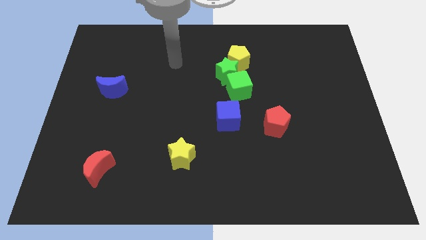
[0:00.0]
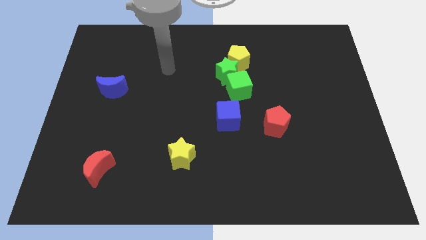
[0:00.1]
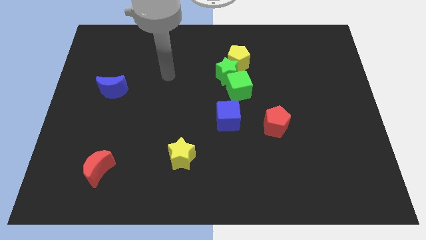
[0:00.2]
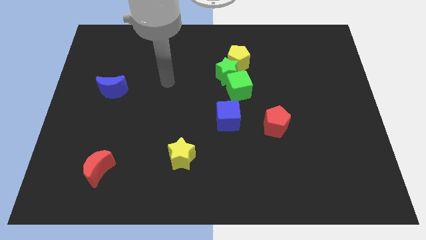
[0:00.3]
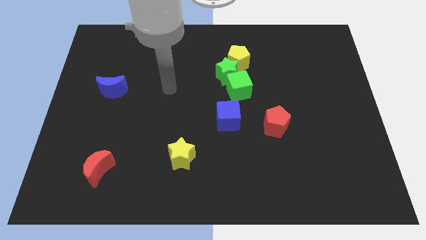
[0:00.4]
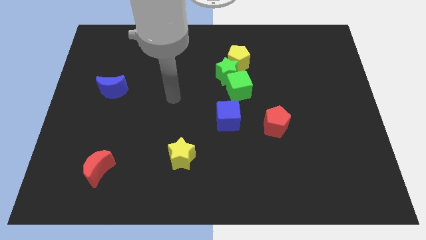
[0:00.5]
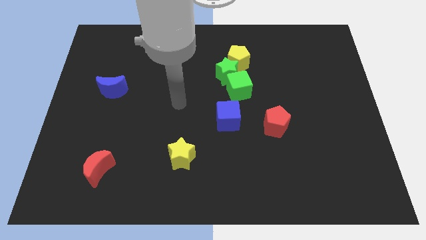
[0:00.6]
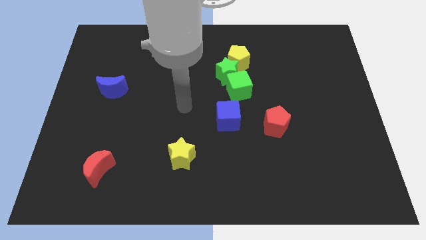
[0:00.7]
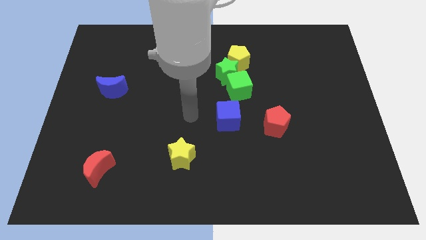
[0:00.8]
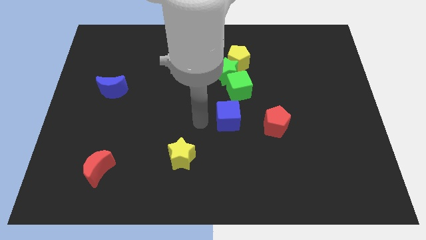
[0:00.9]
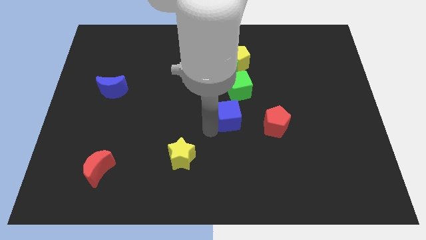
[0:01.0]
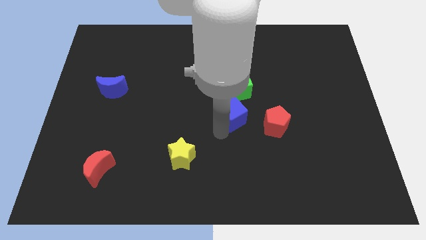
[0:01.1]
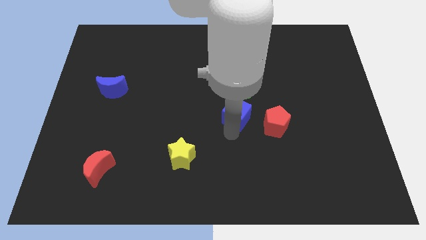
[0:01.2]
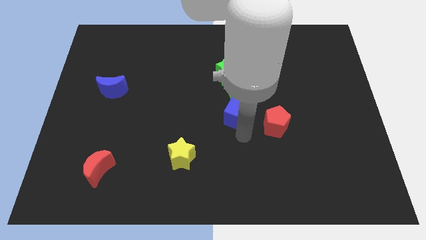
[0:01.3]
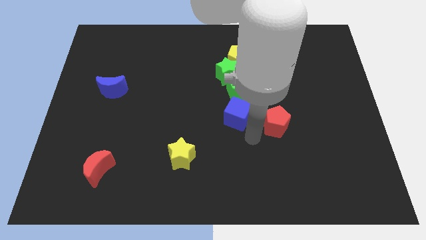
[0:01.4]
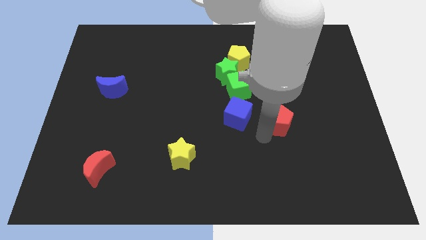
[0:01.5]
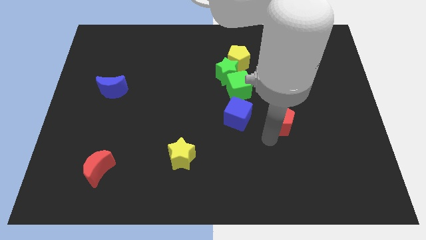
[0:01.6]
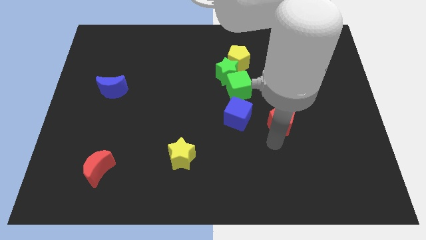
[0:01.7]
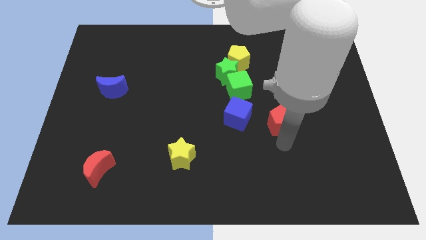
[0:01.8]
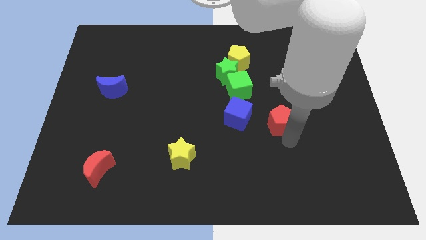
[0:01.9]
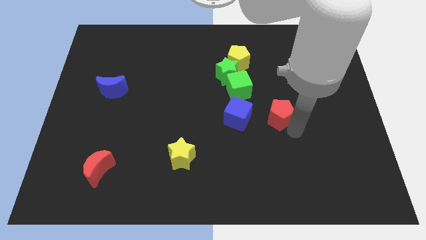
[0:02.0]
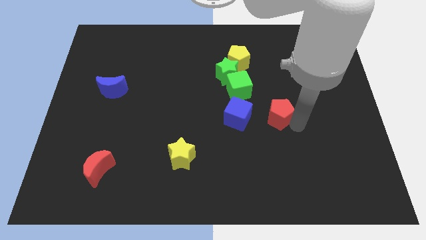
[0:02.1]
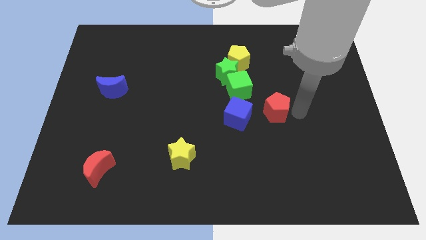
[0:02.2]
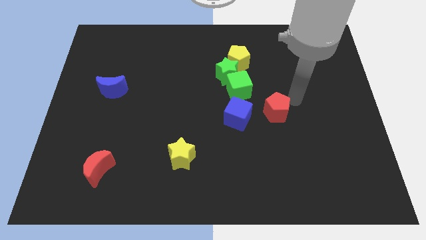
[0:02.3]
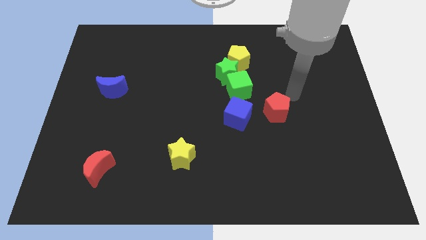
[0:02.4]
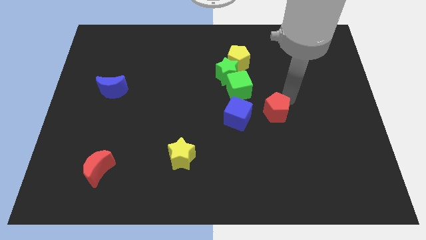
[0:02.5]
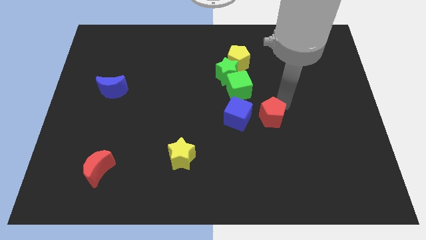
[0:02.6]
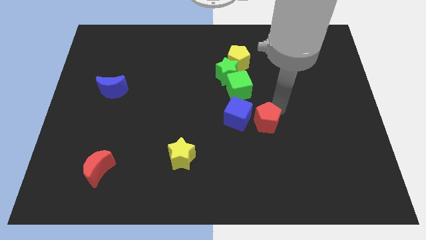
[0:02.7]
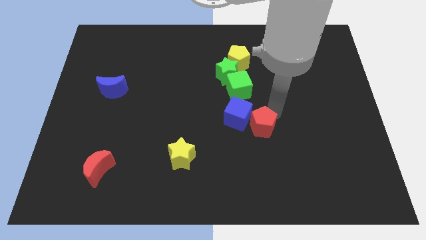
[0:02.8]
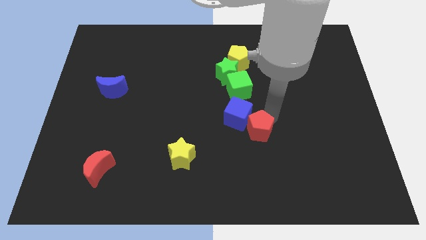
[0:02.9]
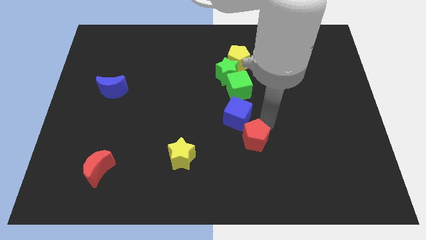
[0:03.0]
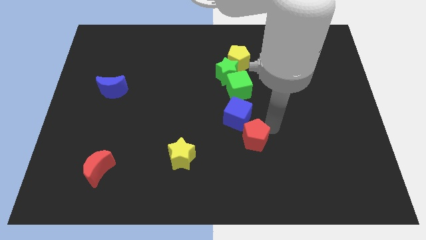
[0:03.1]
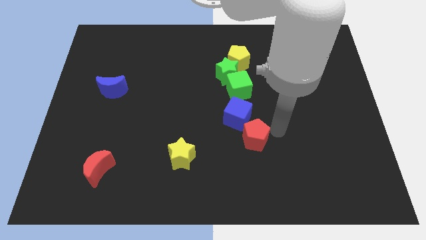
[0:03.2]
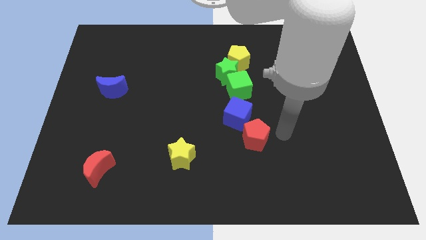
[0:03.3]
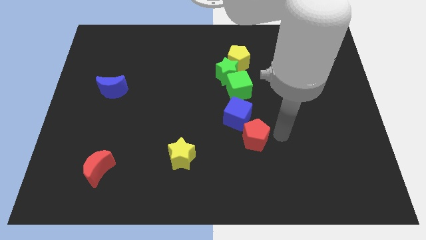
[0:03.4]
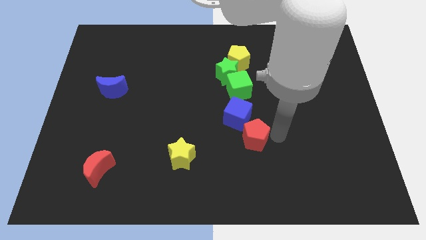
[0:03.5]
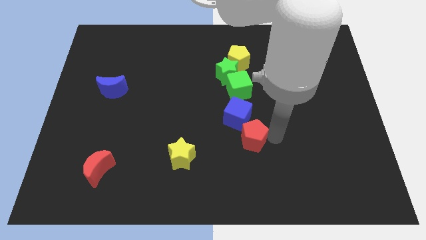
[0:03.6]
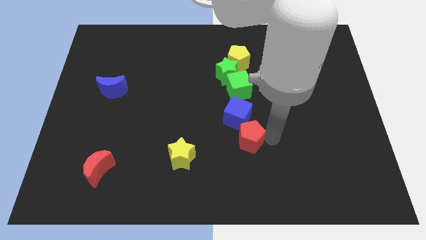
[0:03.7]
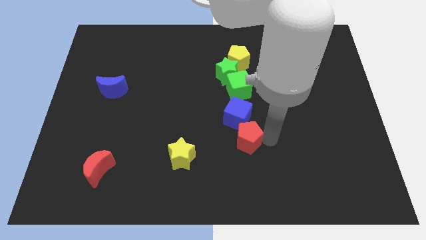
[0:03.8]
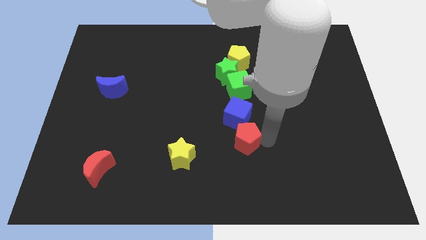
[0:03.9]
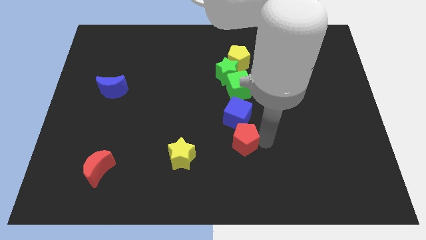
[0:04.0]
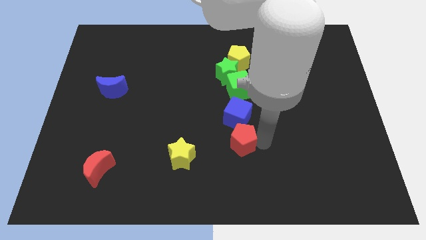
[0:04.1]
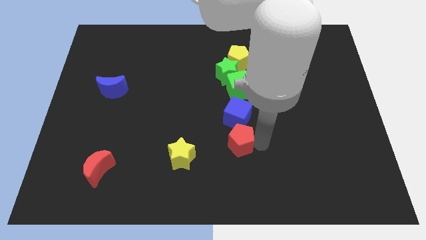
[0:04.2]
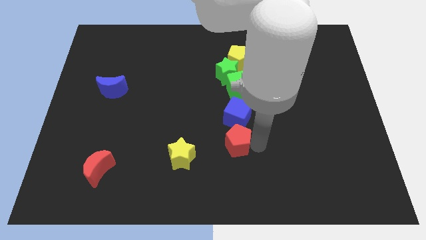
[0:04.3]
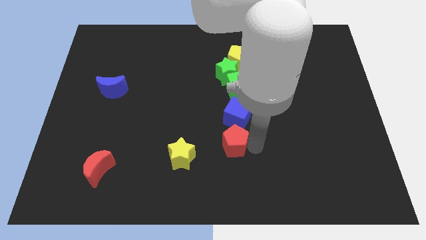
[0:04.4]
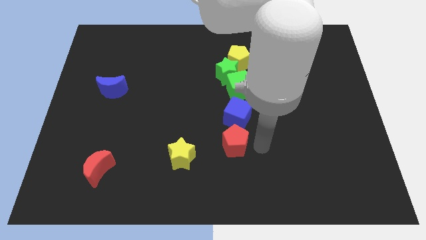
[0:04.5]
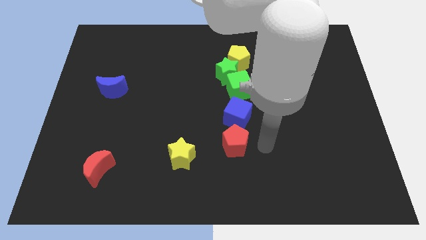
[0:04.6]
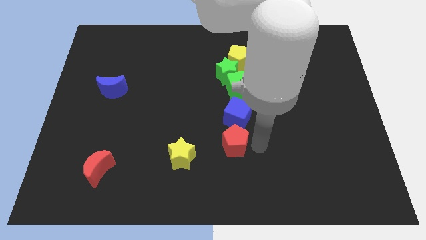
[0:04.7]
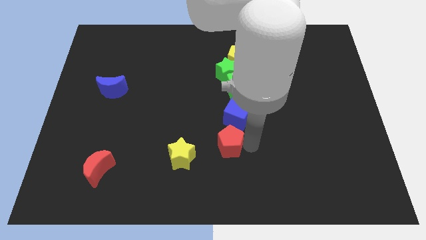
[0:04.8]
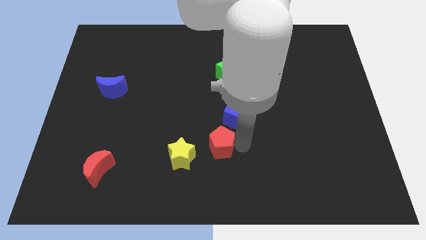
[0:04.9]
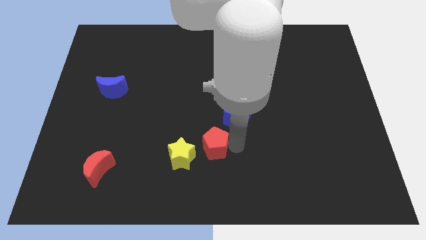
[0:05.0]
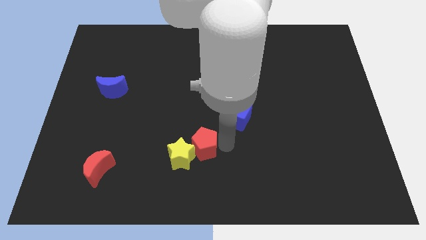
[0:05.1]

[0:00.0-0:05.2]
push the red pentagon to the yellow star

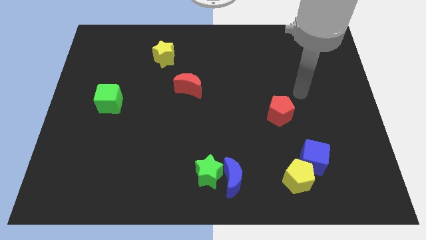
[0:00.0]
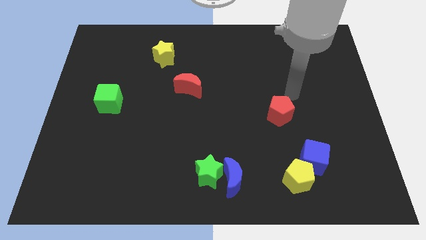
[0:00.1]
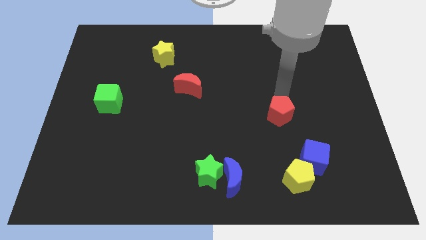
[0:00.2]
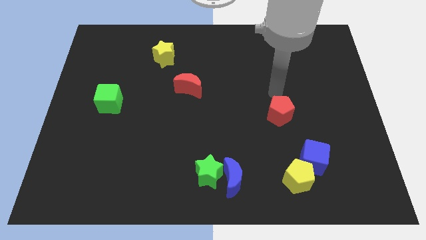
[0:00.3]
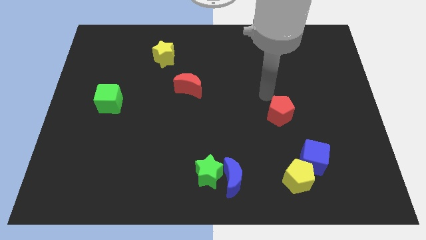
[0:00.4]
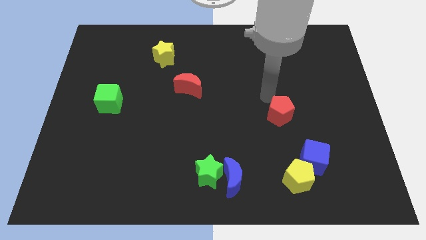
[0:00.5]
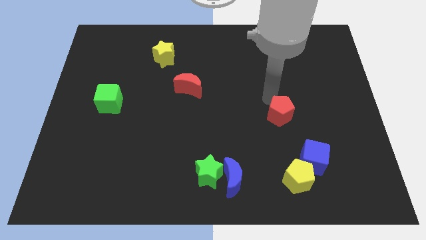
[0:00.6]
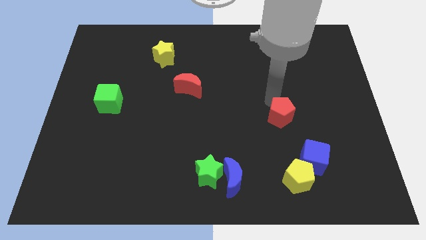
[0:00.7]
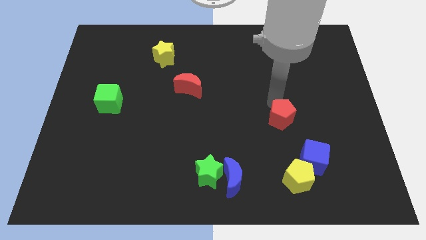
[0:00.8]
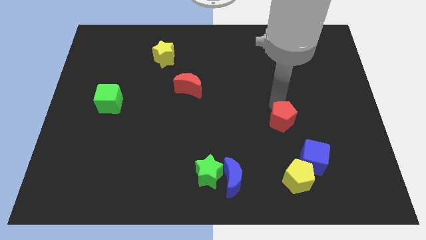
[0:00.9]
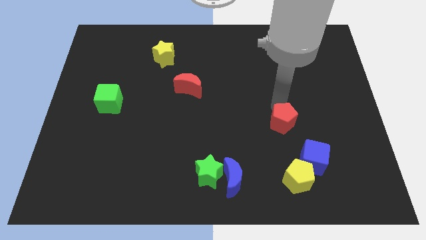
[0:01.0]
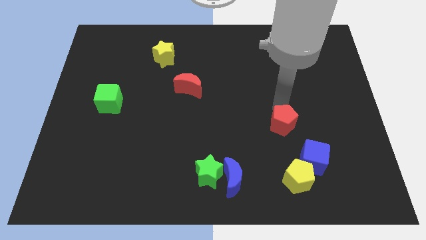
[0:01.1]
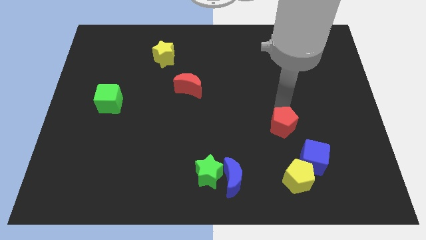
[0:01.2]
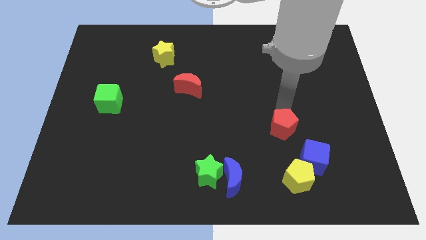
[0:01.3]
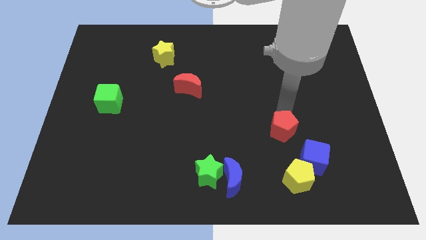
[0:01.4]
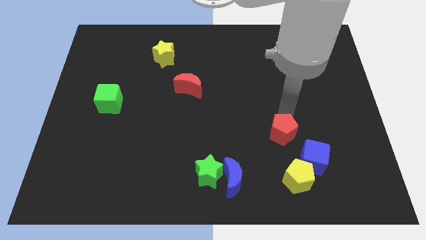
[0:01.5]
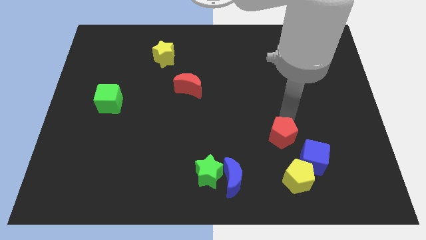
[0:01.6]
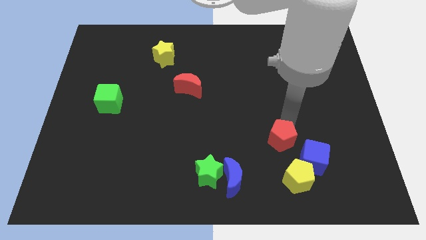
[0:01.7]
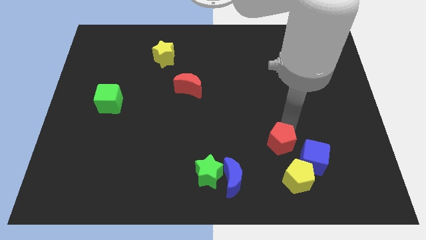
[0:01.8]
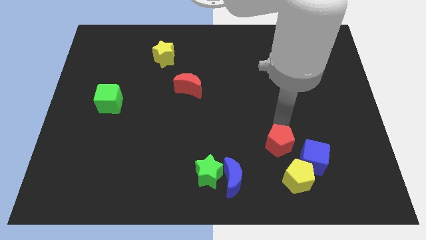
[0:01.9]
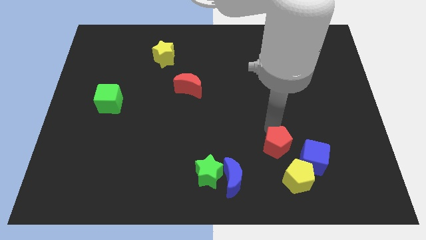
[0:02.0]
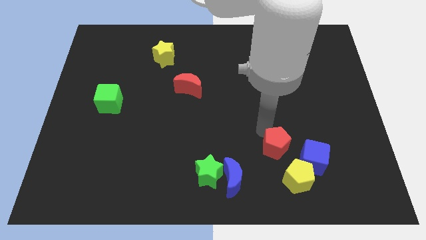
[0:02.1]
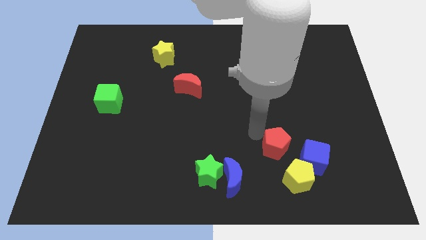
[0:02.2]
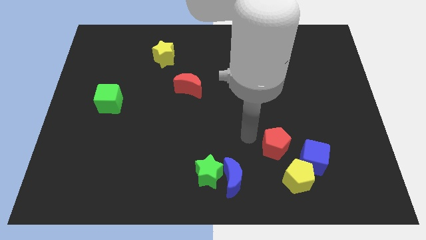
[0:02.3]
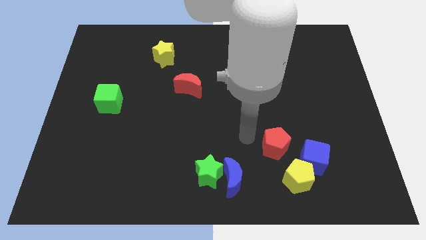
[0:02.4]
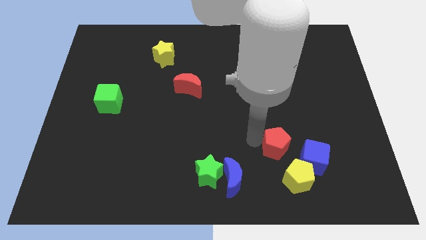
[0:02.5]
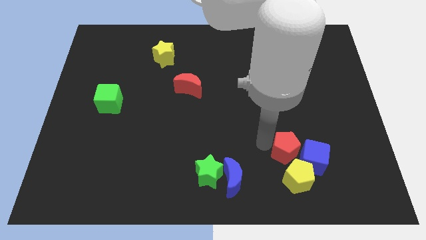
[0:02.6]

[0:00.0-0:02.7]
push the red pentagon close to the blue cube
